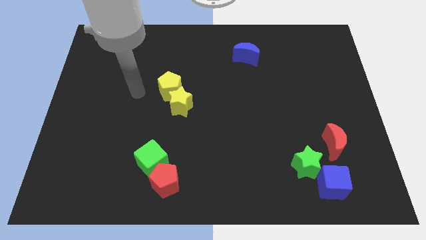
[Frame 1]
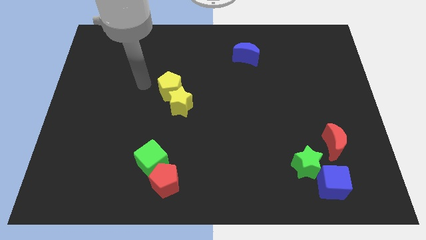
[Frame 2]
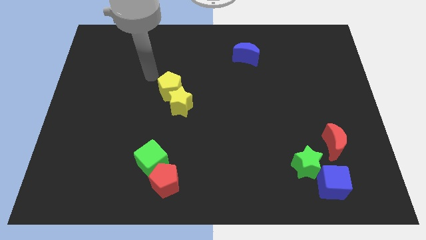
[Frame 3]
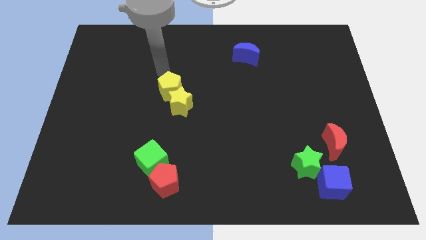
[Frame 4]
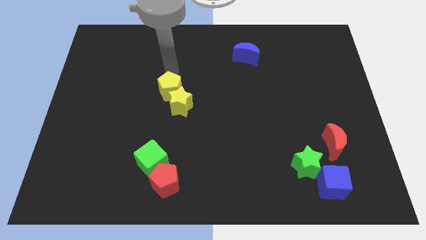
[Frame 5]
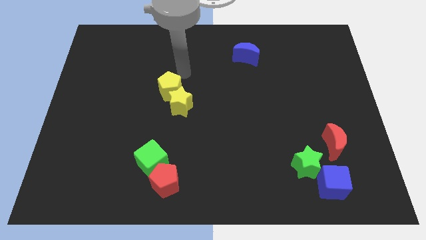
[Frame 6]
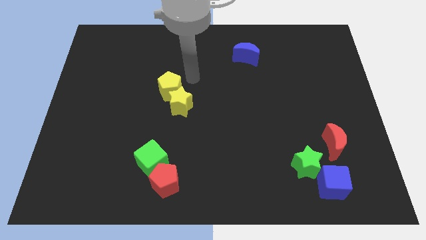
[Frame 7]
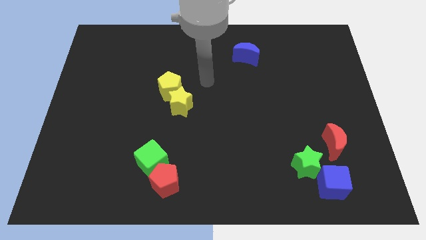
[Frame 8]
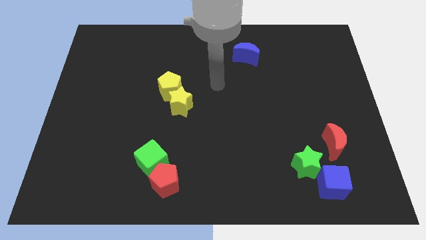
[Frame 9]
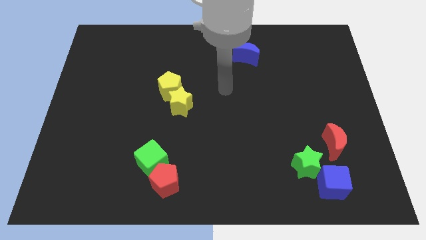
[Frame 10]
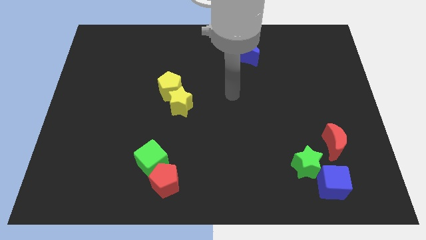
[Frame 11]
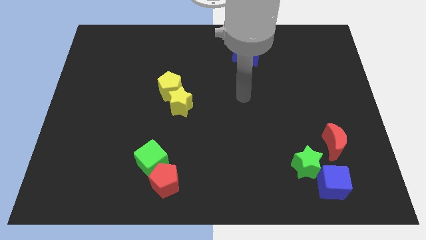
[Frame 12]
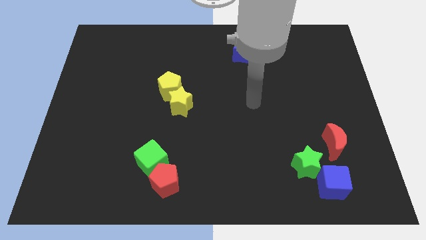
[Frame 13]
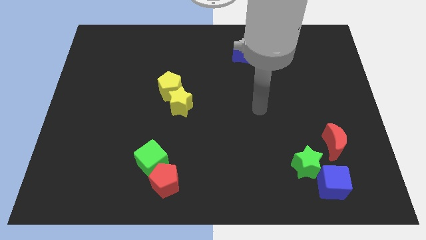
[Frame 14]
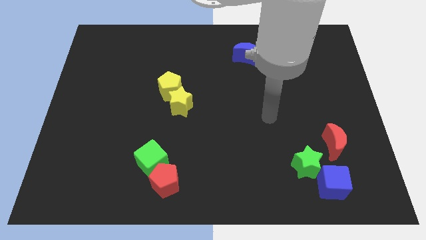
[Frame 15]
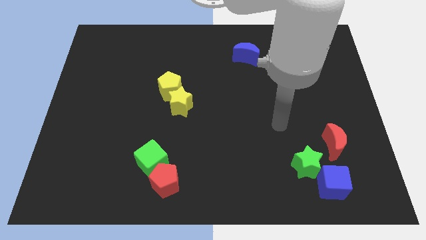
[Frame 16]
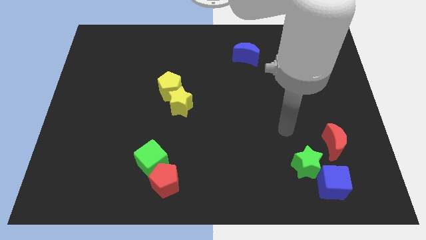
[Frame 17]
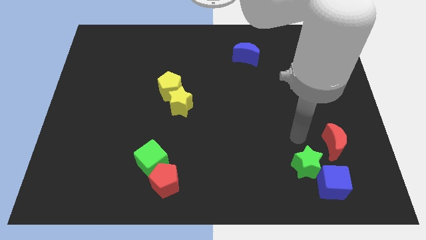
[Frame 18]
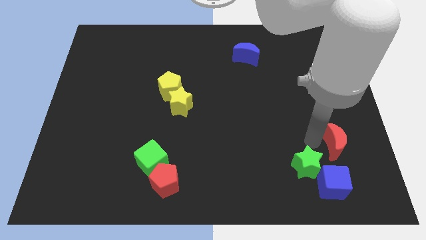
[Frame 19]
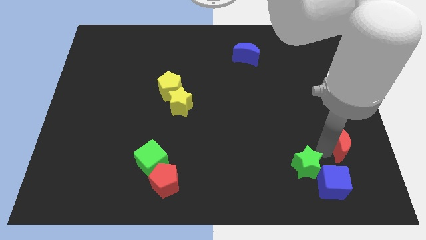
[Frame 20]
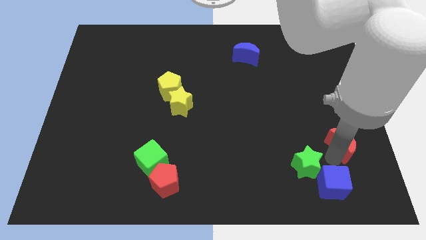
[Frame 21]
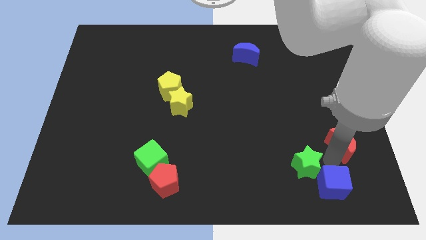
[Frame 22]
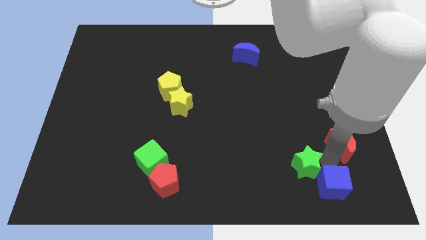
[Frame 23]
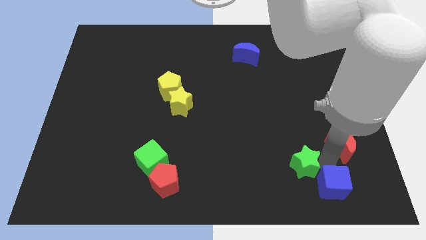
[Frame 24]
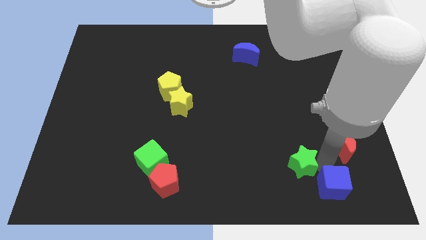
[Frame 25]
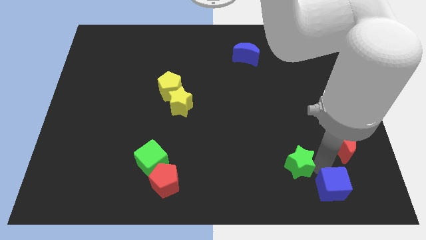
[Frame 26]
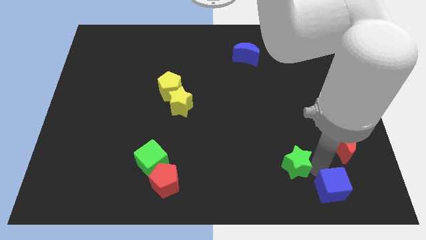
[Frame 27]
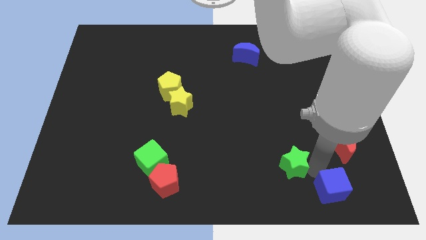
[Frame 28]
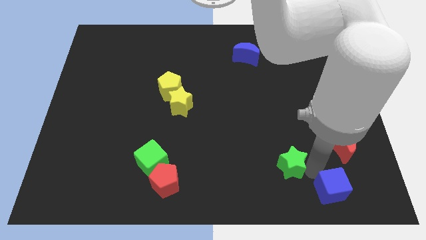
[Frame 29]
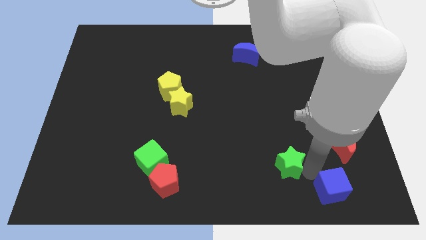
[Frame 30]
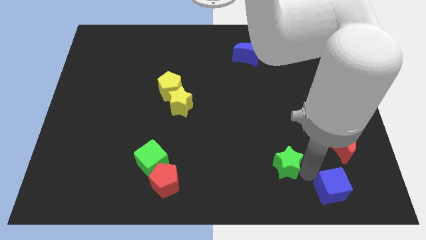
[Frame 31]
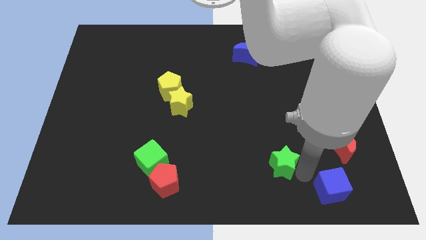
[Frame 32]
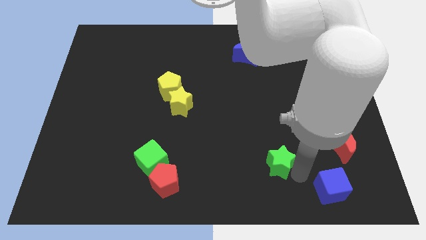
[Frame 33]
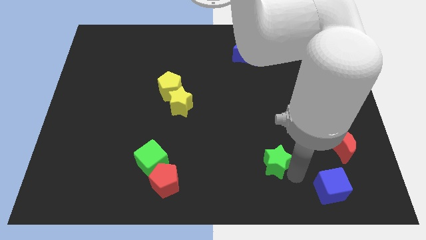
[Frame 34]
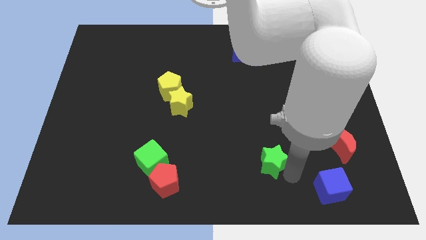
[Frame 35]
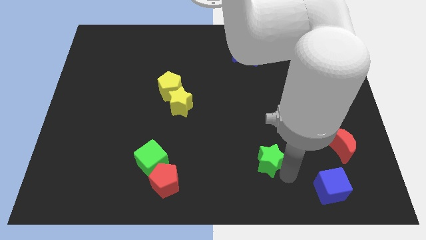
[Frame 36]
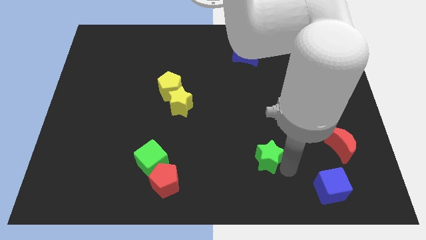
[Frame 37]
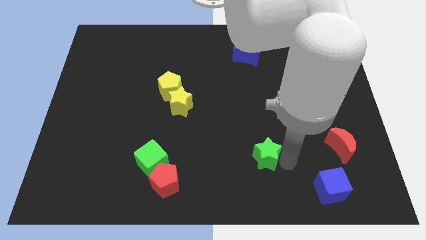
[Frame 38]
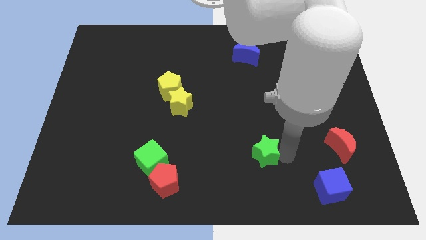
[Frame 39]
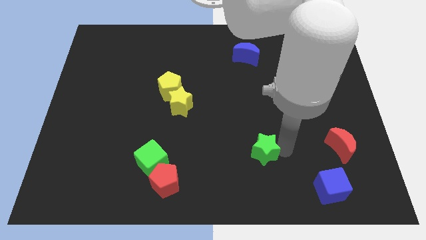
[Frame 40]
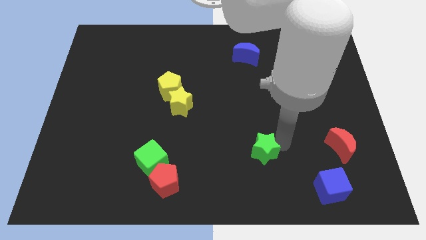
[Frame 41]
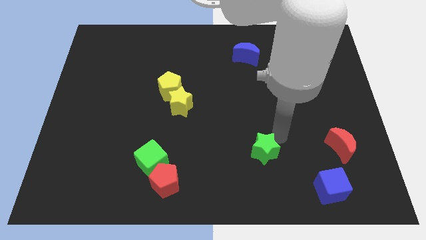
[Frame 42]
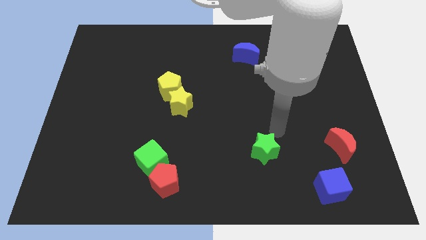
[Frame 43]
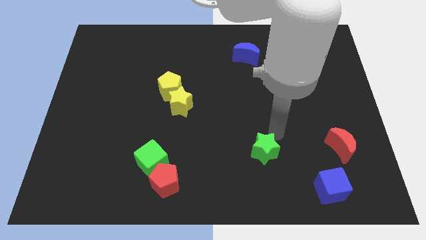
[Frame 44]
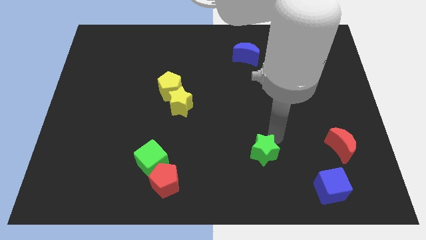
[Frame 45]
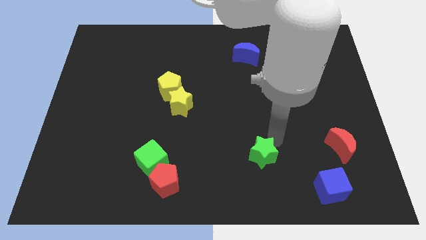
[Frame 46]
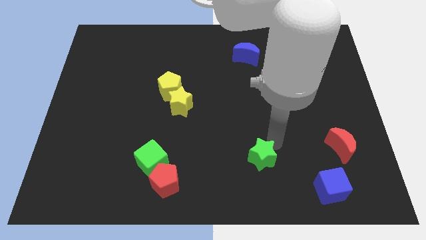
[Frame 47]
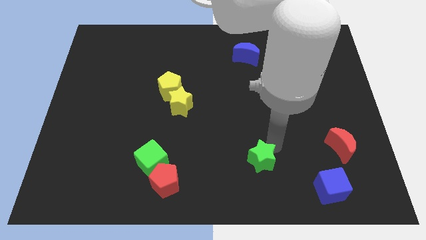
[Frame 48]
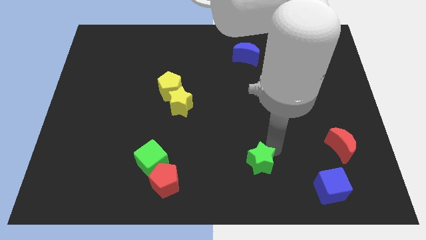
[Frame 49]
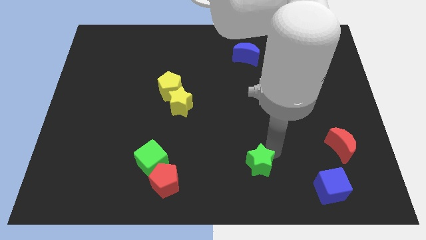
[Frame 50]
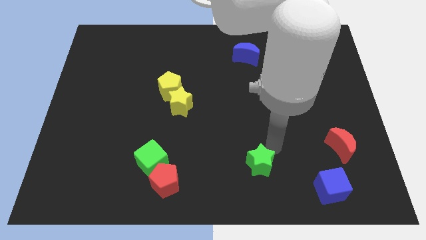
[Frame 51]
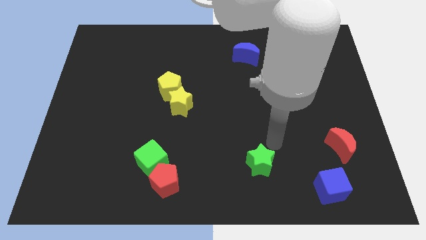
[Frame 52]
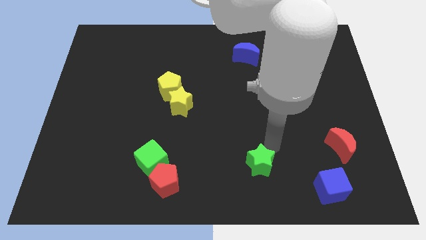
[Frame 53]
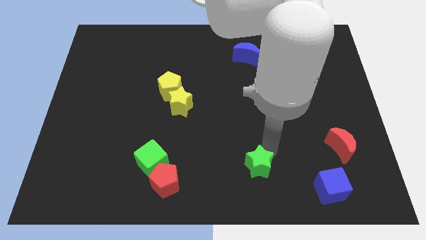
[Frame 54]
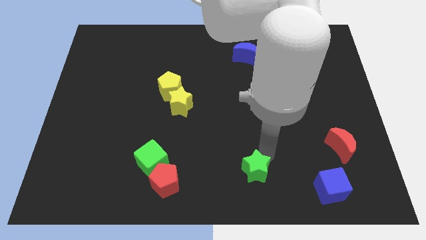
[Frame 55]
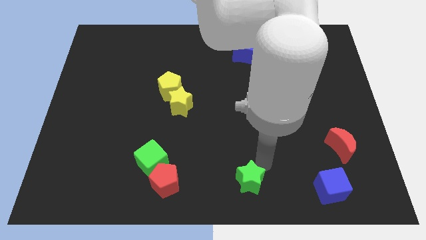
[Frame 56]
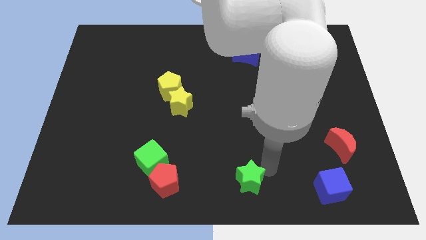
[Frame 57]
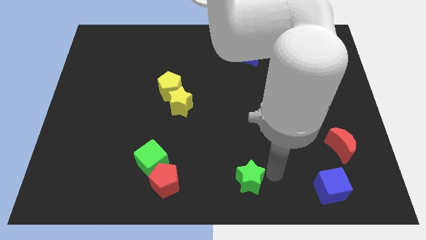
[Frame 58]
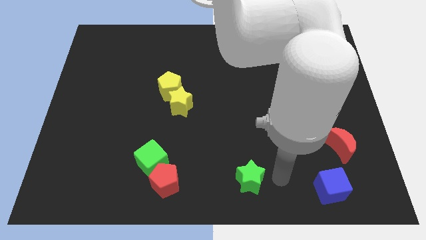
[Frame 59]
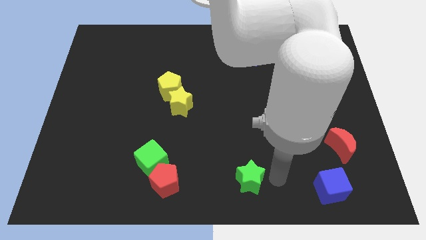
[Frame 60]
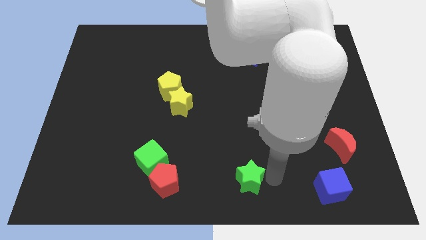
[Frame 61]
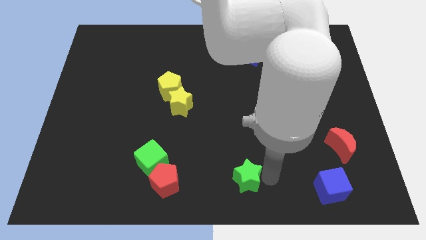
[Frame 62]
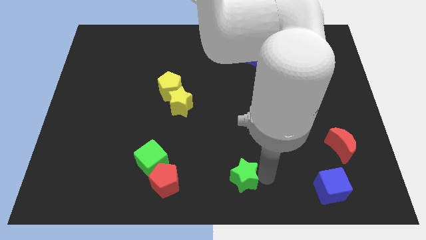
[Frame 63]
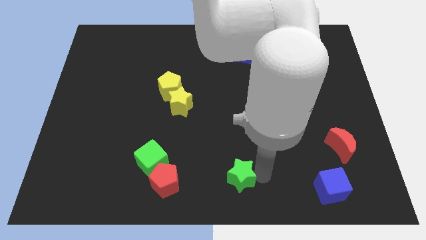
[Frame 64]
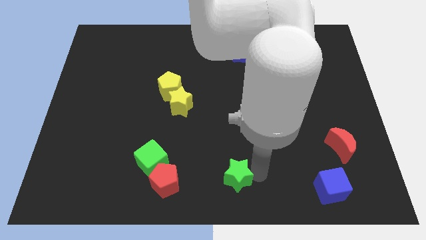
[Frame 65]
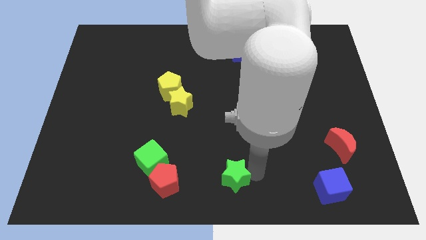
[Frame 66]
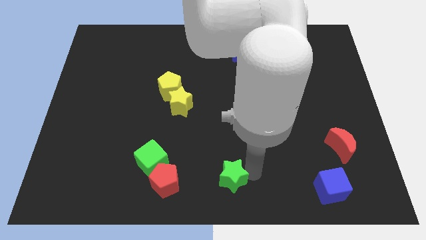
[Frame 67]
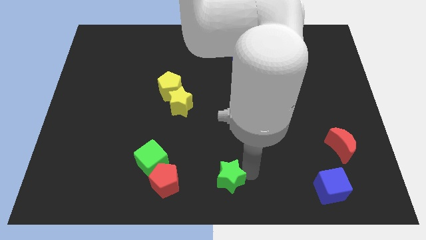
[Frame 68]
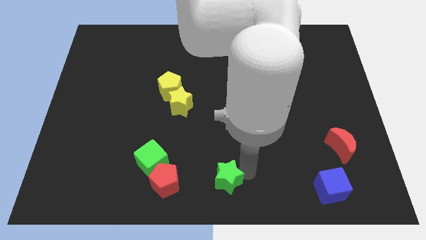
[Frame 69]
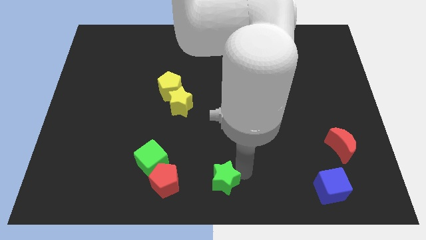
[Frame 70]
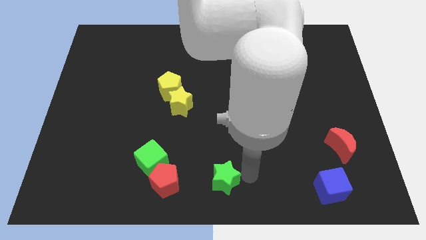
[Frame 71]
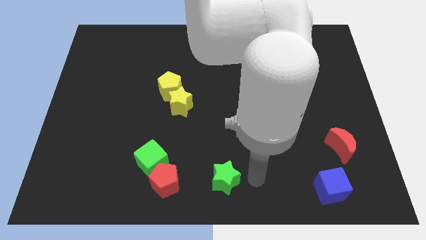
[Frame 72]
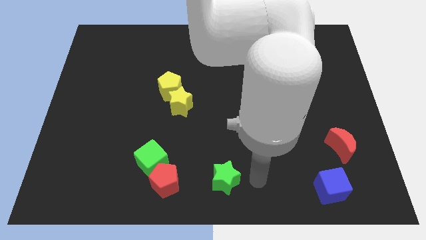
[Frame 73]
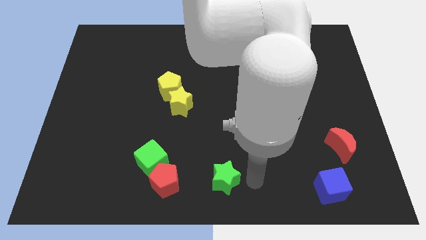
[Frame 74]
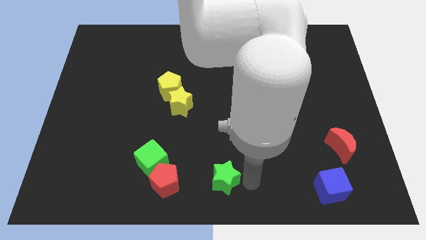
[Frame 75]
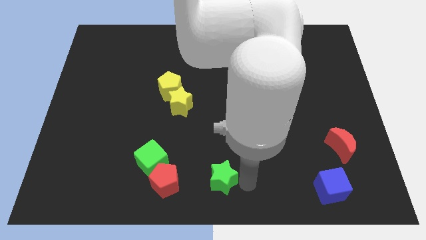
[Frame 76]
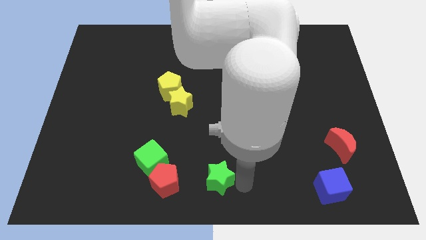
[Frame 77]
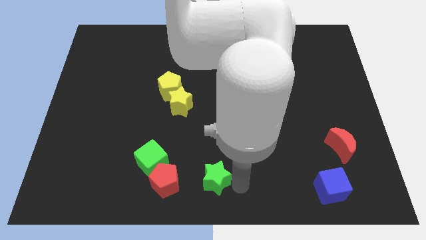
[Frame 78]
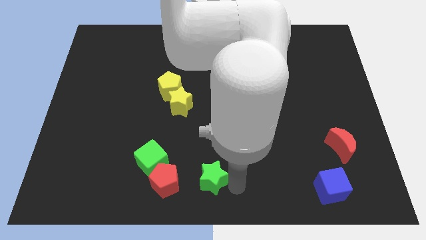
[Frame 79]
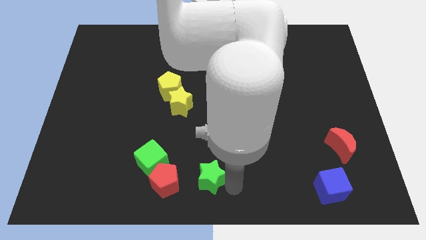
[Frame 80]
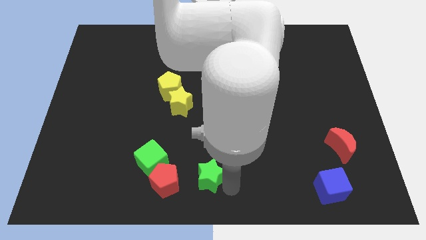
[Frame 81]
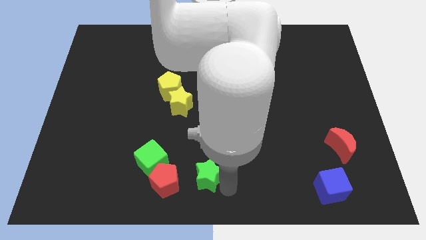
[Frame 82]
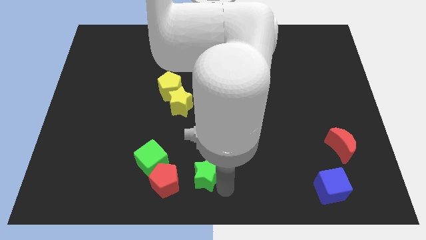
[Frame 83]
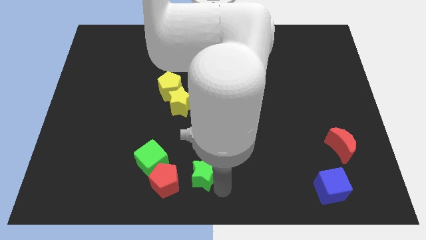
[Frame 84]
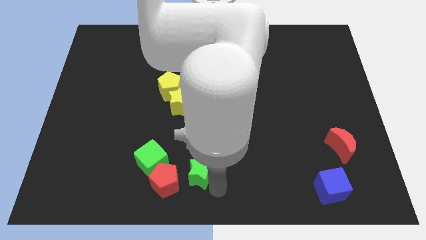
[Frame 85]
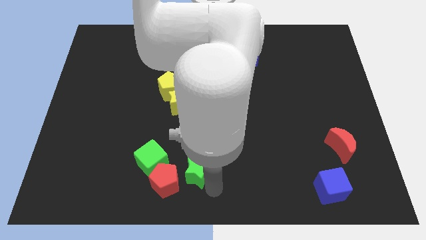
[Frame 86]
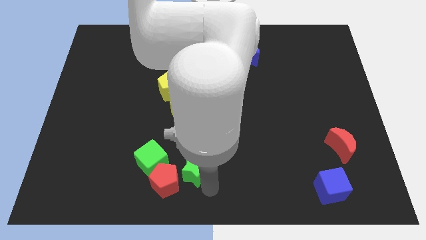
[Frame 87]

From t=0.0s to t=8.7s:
slide the green star towards the red pentagon
